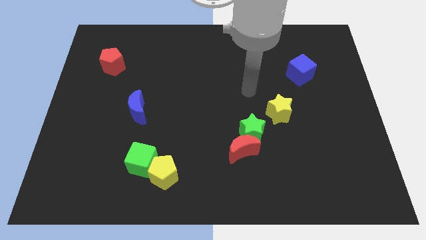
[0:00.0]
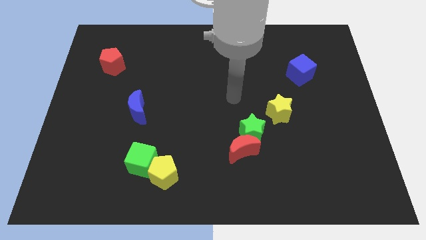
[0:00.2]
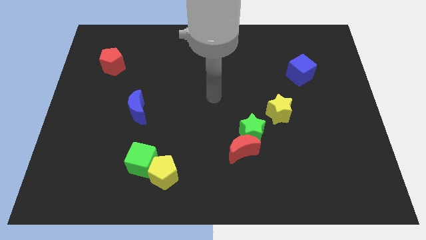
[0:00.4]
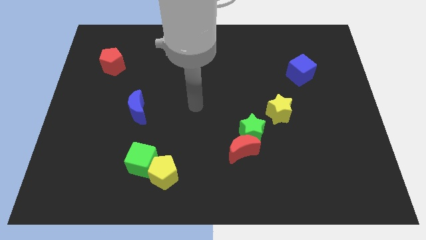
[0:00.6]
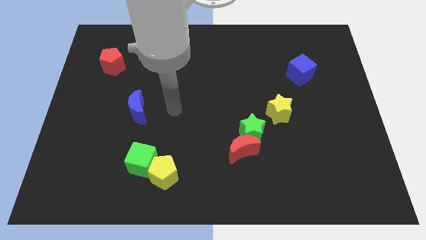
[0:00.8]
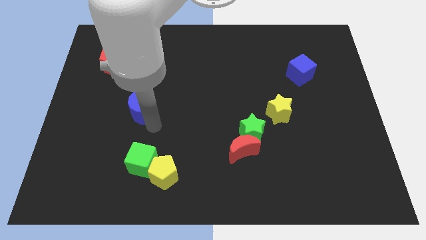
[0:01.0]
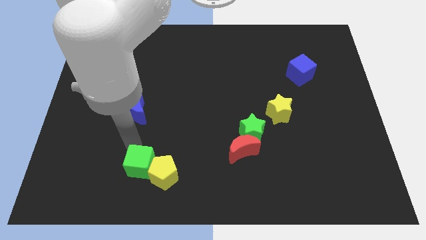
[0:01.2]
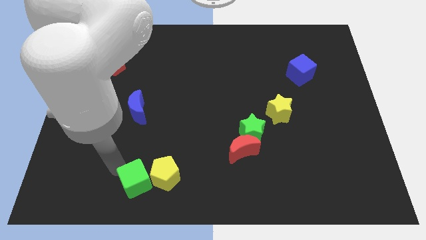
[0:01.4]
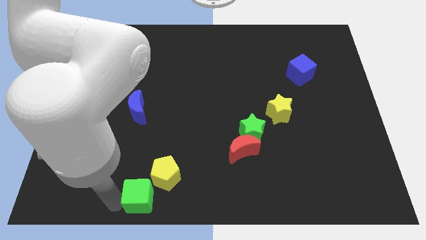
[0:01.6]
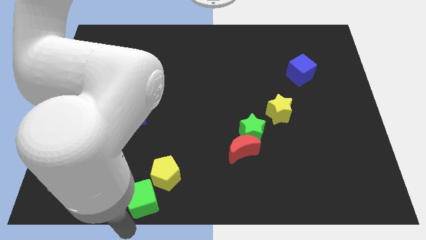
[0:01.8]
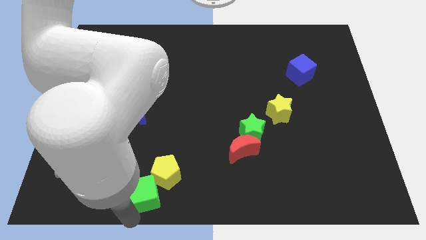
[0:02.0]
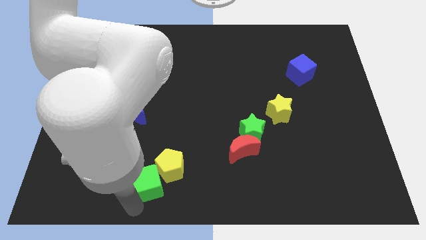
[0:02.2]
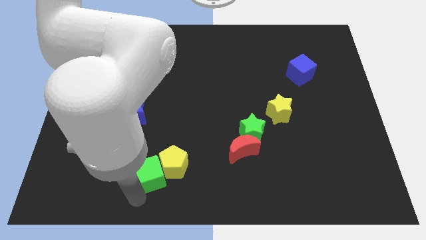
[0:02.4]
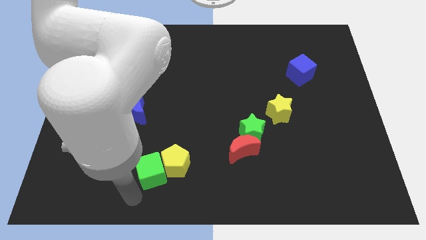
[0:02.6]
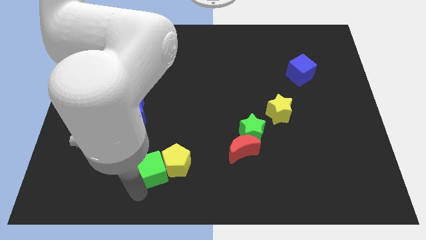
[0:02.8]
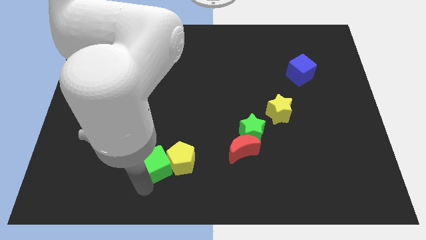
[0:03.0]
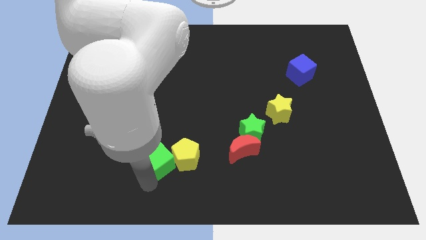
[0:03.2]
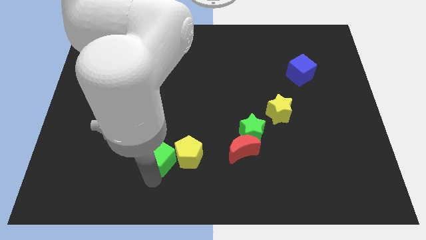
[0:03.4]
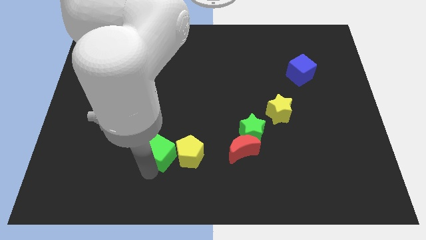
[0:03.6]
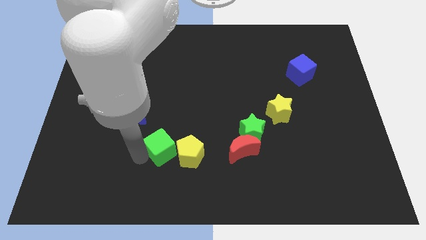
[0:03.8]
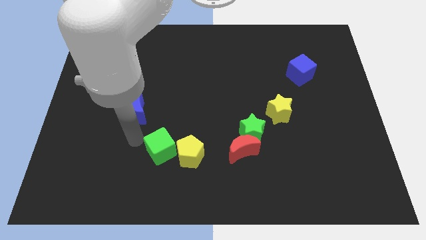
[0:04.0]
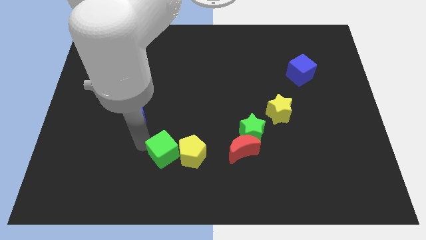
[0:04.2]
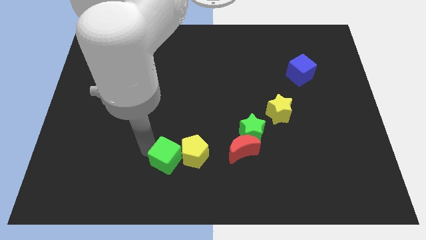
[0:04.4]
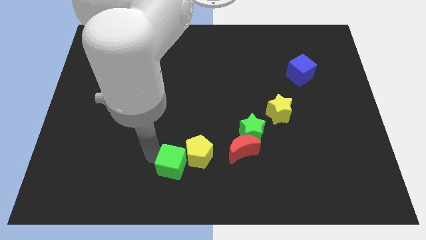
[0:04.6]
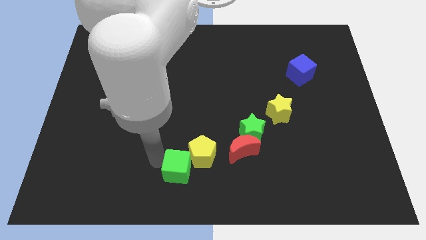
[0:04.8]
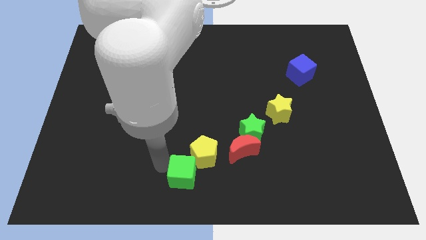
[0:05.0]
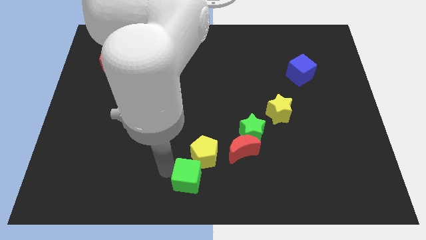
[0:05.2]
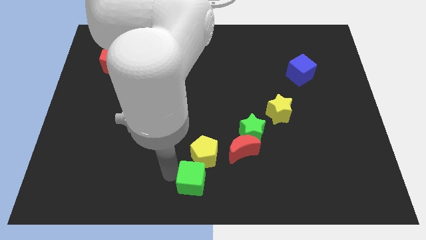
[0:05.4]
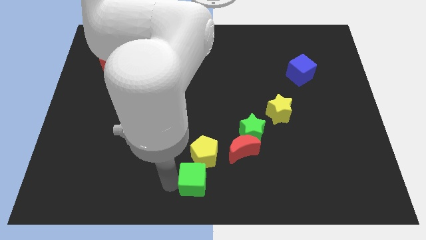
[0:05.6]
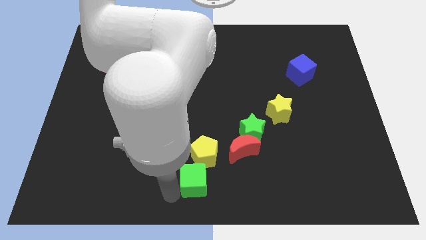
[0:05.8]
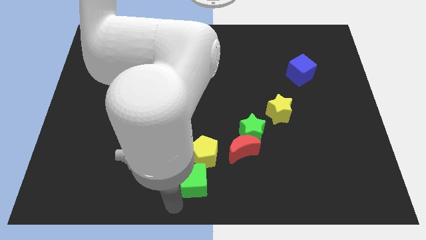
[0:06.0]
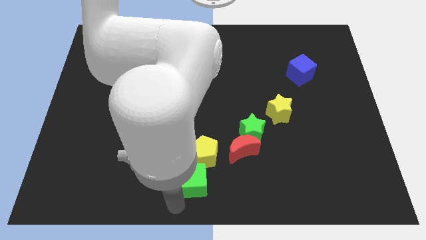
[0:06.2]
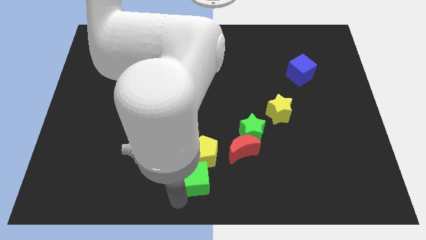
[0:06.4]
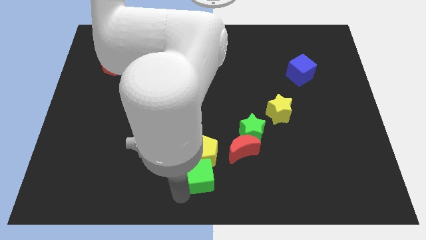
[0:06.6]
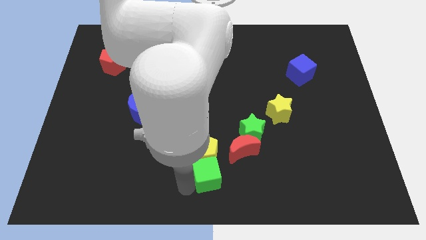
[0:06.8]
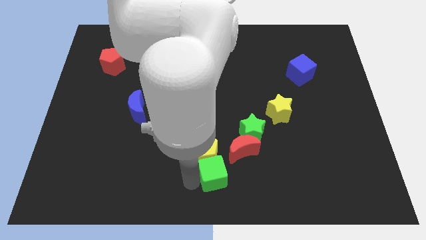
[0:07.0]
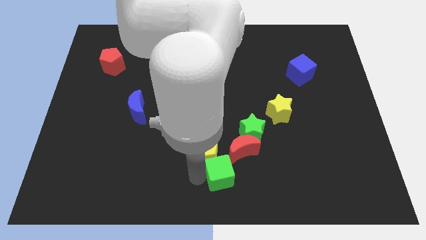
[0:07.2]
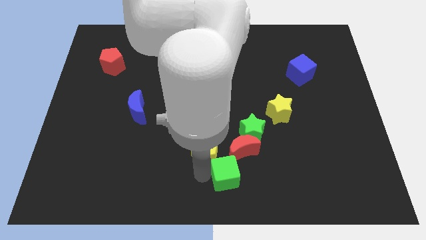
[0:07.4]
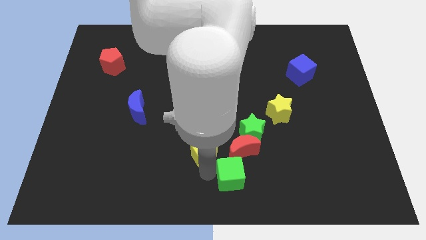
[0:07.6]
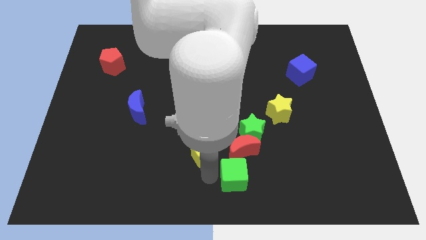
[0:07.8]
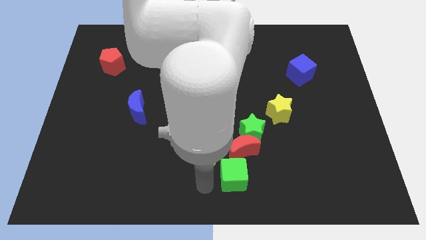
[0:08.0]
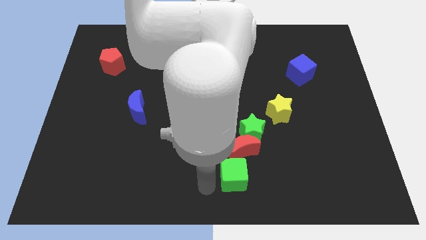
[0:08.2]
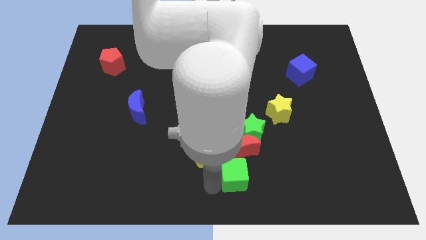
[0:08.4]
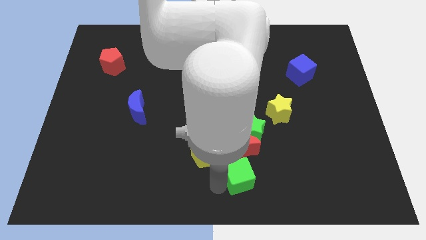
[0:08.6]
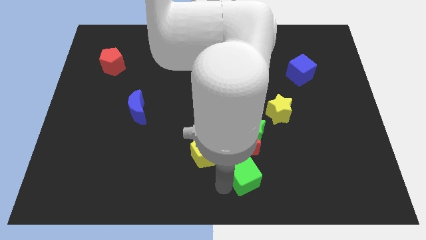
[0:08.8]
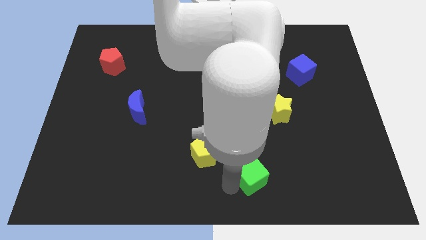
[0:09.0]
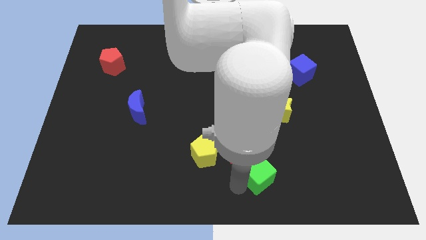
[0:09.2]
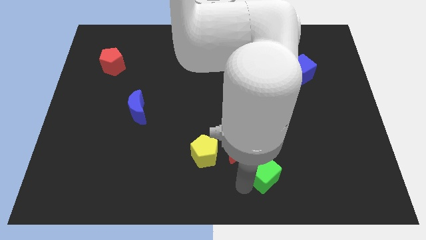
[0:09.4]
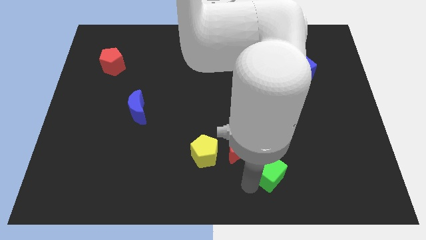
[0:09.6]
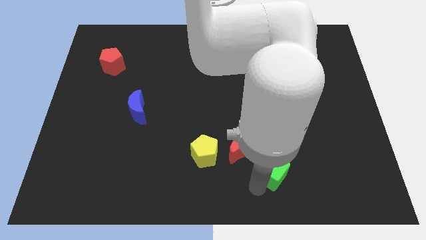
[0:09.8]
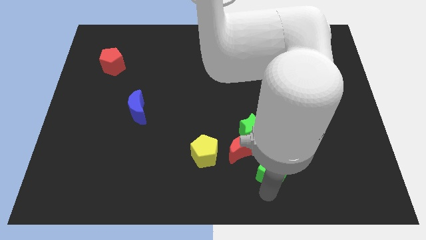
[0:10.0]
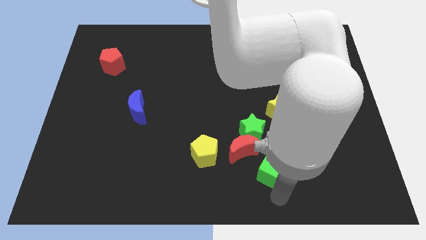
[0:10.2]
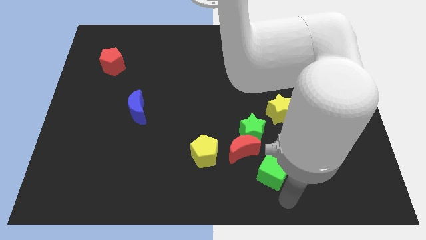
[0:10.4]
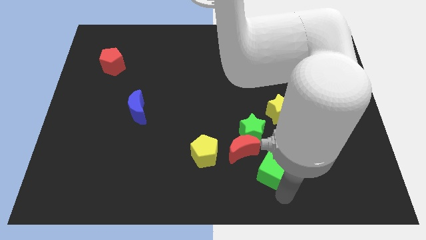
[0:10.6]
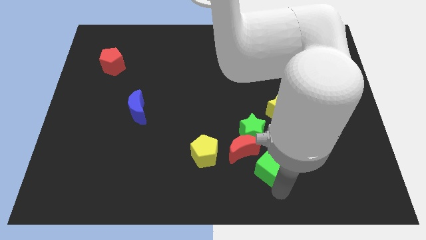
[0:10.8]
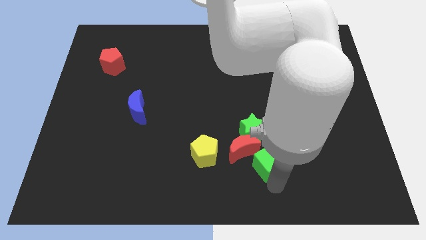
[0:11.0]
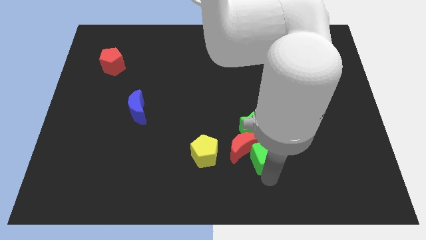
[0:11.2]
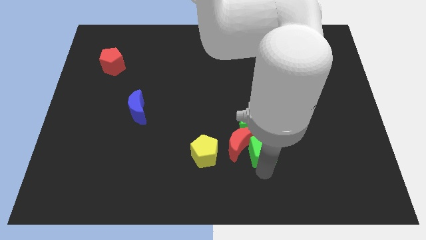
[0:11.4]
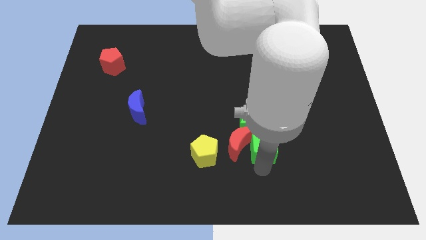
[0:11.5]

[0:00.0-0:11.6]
push the green cube to the top right of the red moon

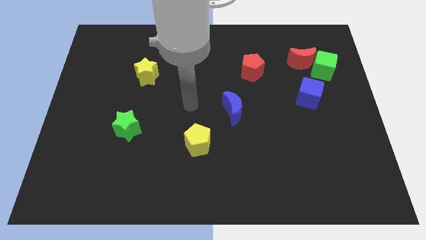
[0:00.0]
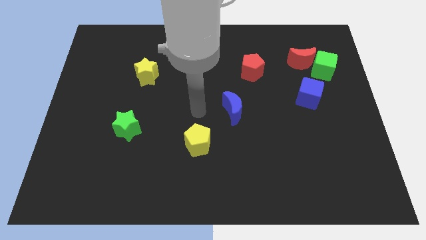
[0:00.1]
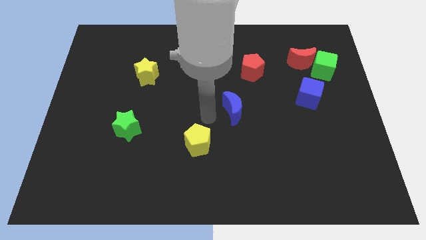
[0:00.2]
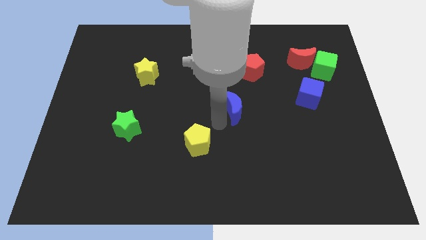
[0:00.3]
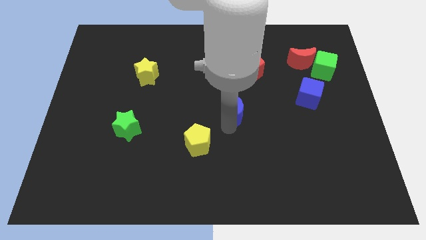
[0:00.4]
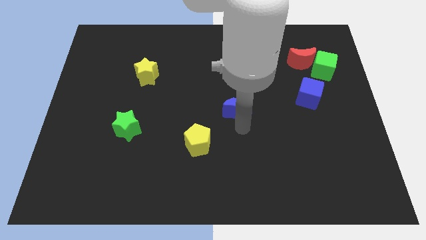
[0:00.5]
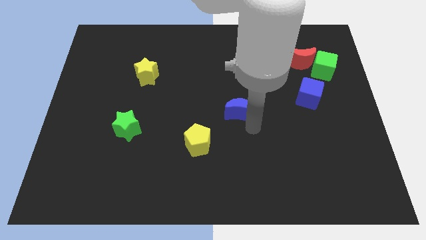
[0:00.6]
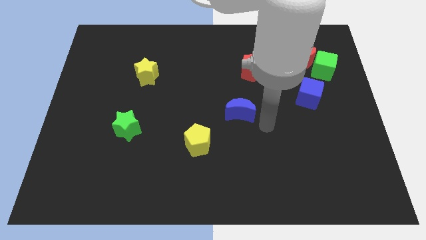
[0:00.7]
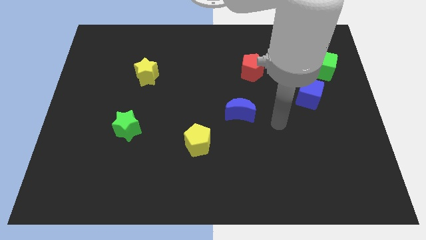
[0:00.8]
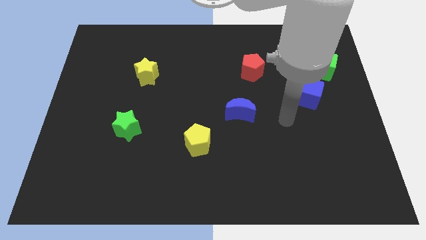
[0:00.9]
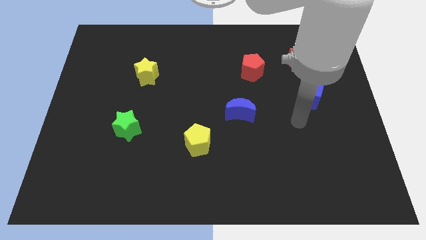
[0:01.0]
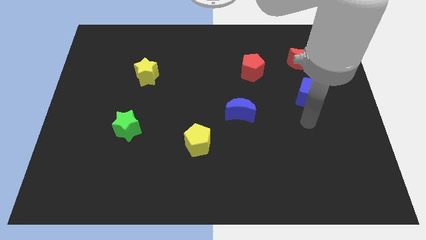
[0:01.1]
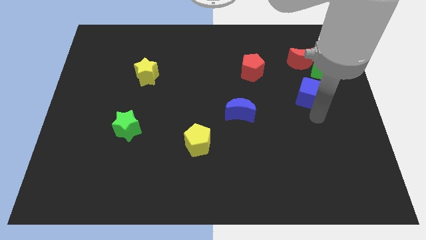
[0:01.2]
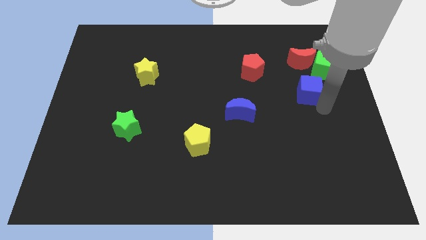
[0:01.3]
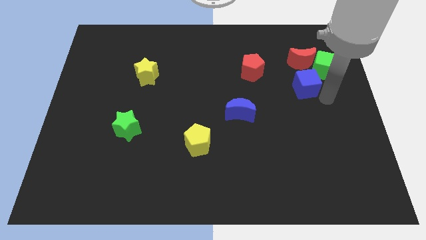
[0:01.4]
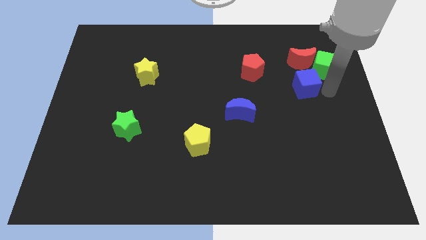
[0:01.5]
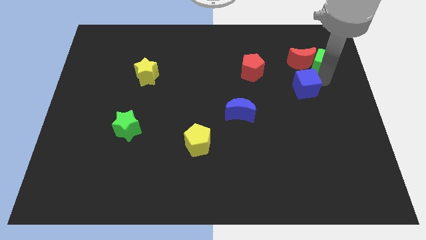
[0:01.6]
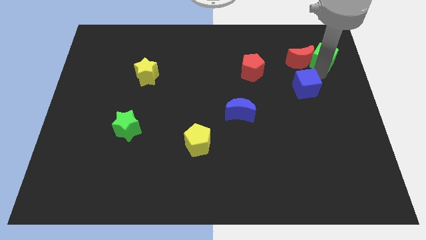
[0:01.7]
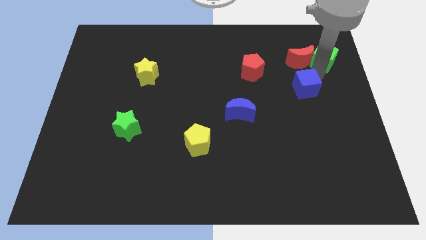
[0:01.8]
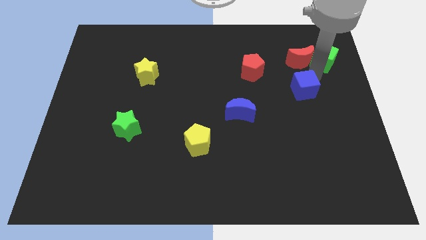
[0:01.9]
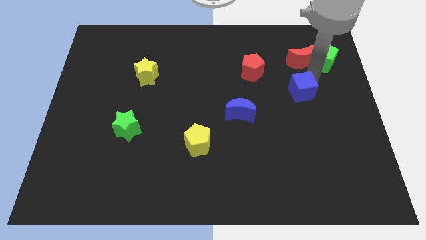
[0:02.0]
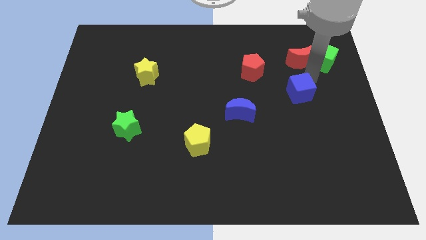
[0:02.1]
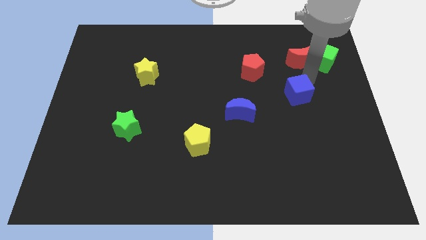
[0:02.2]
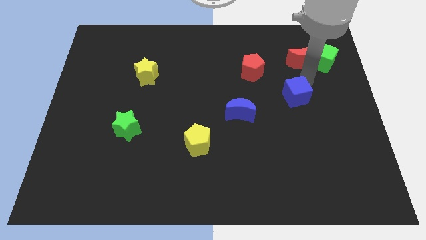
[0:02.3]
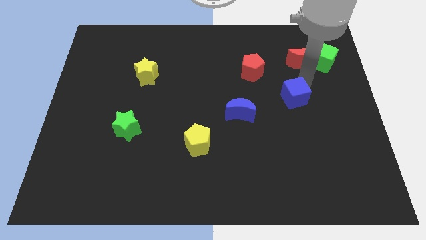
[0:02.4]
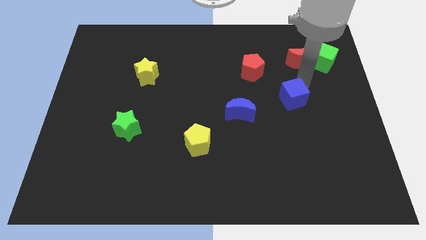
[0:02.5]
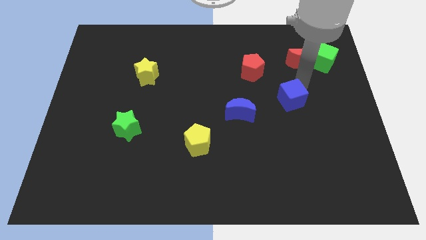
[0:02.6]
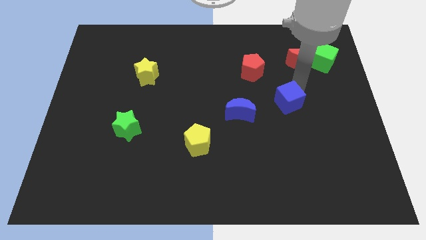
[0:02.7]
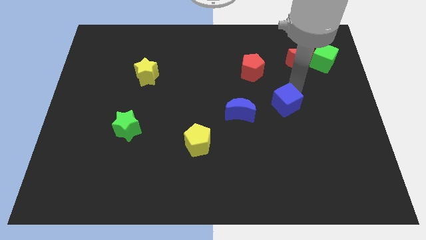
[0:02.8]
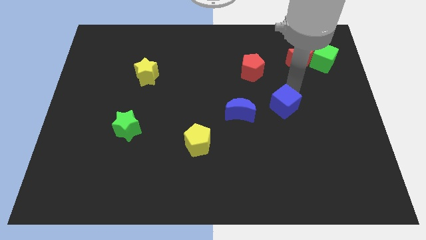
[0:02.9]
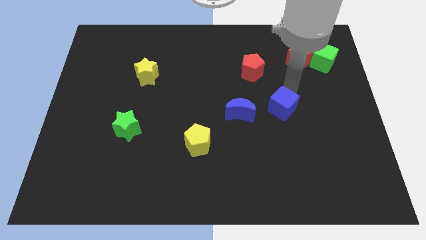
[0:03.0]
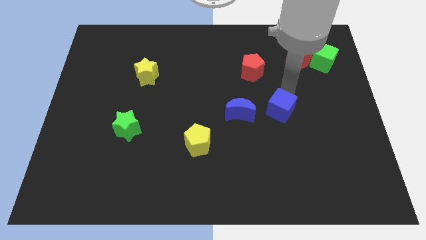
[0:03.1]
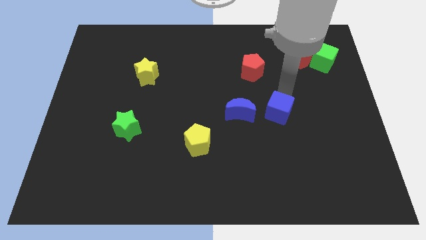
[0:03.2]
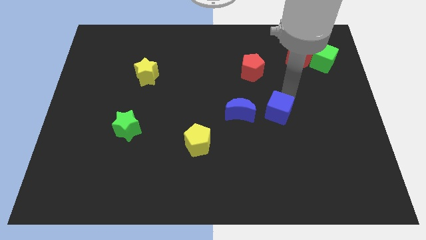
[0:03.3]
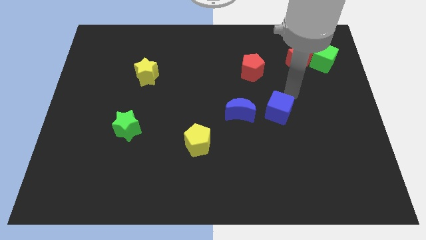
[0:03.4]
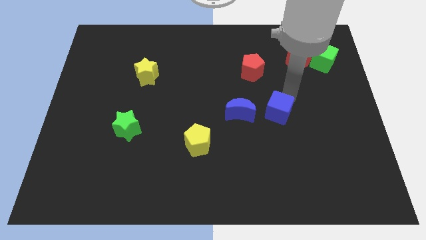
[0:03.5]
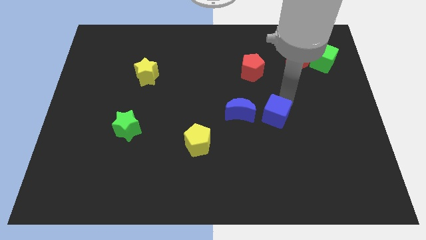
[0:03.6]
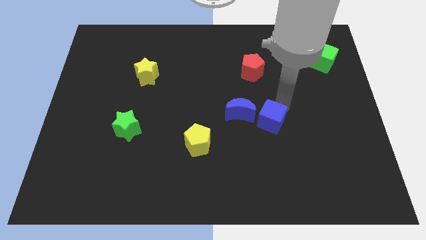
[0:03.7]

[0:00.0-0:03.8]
put the blue cube diagonally down and to the right of the blue moon
